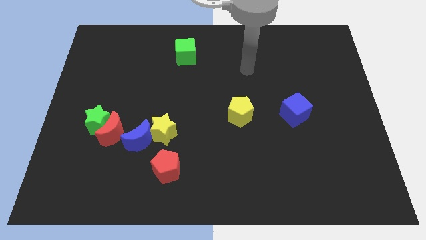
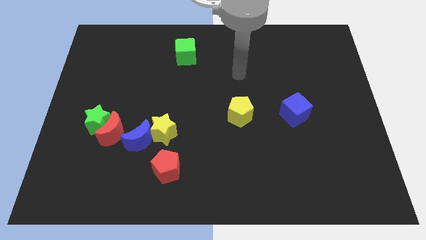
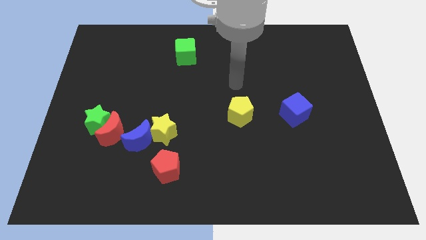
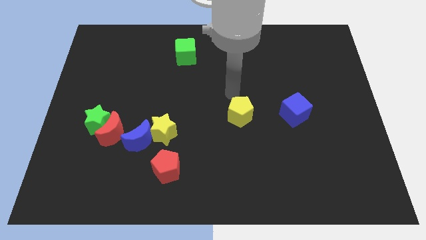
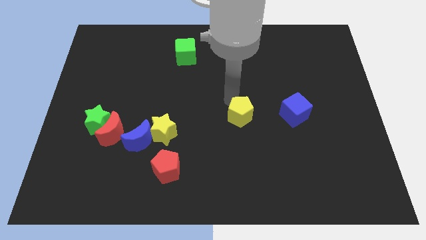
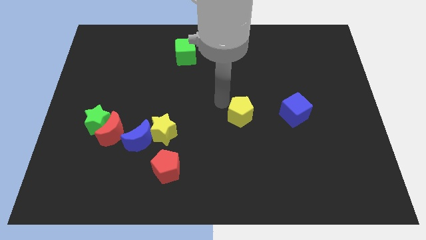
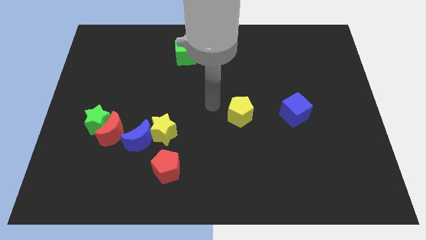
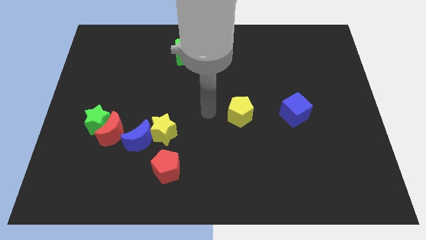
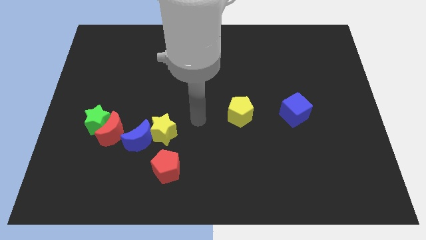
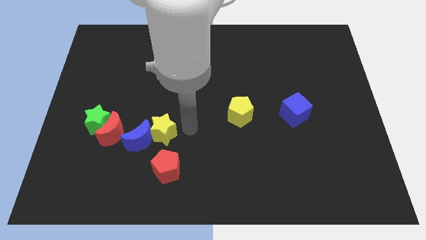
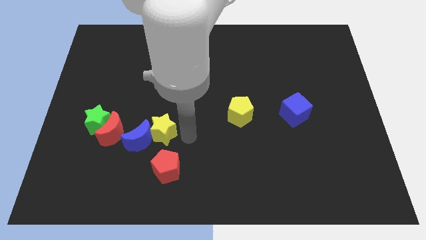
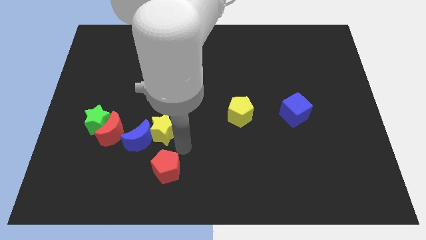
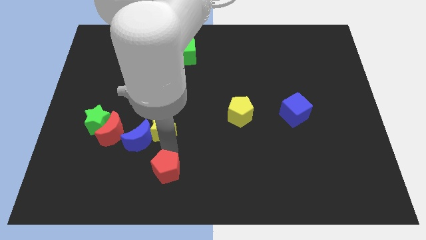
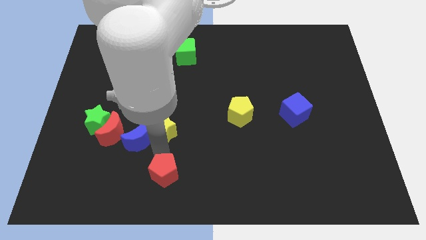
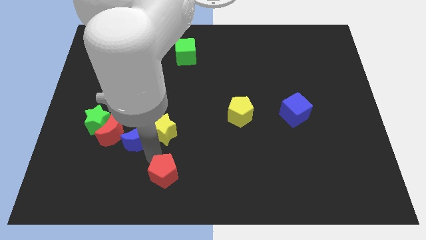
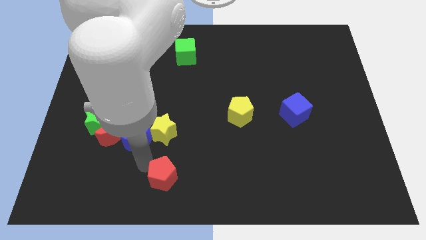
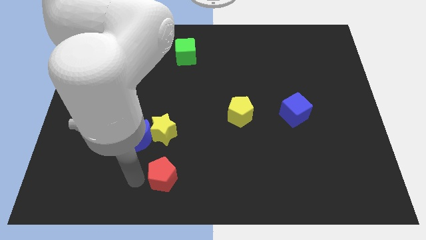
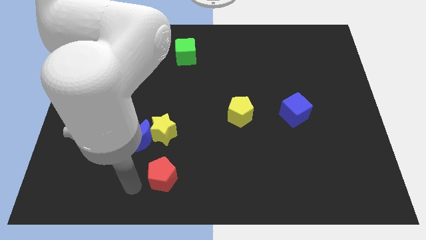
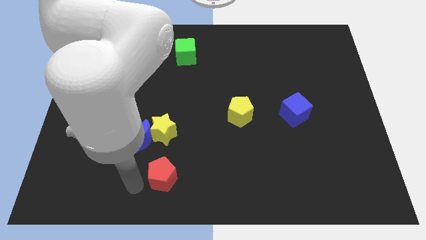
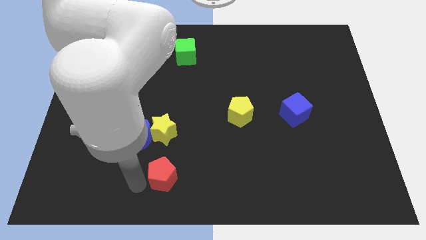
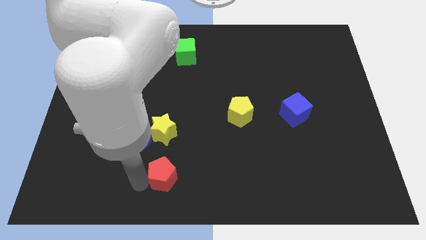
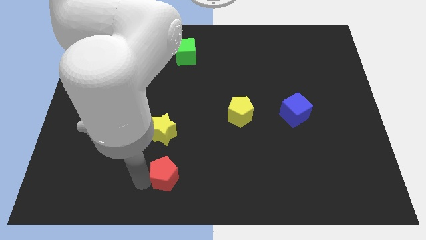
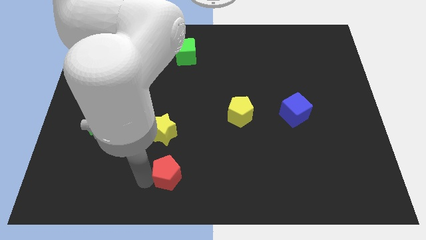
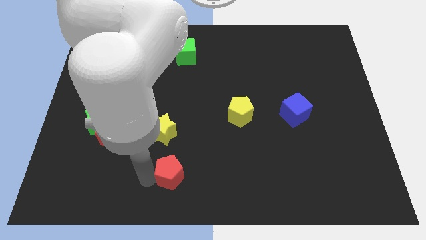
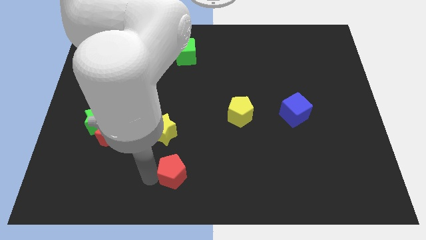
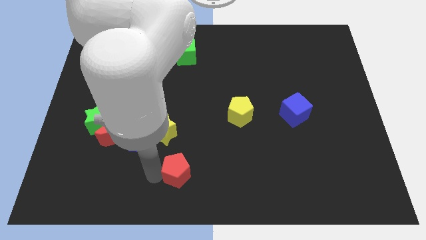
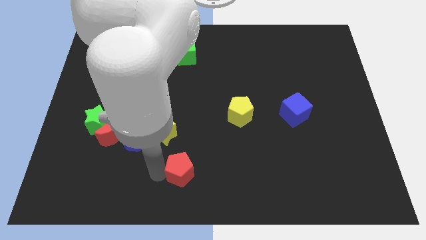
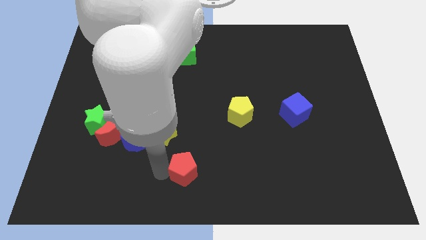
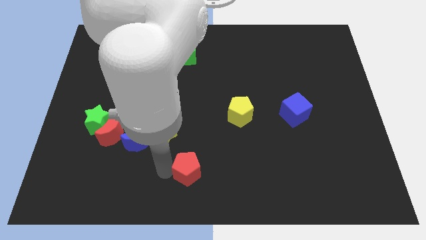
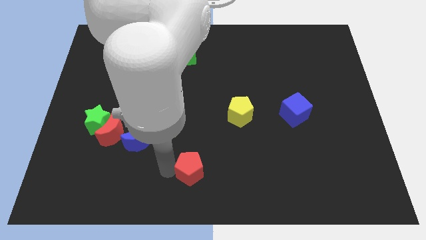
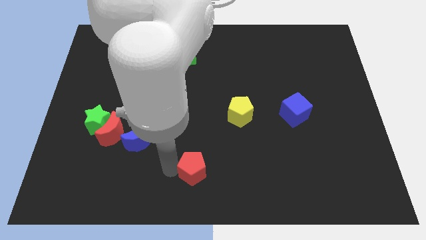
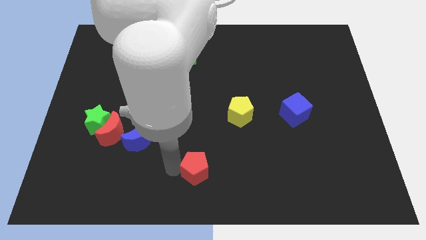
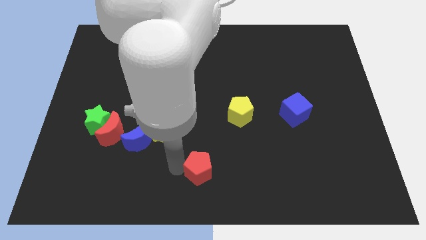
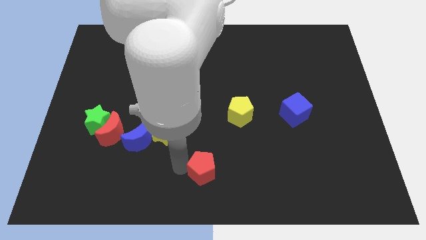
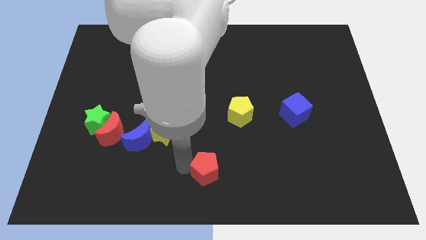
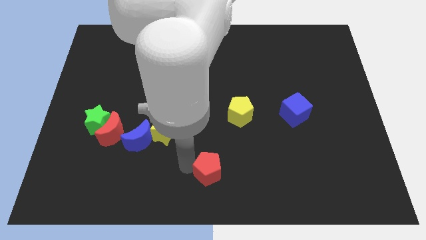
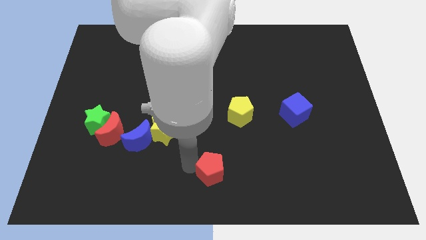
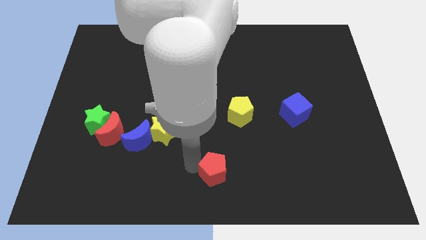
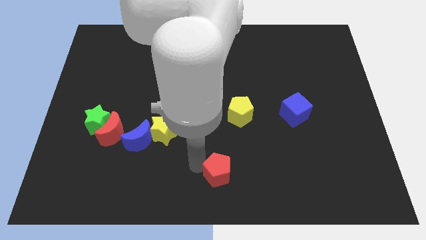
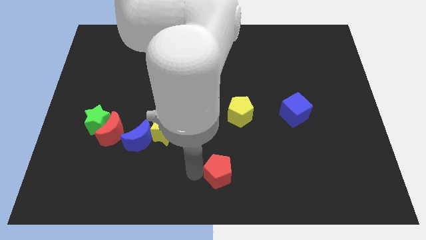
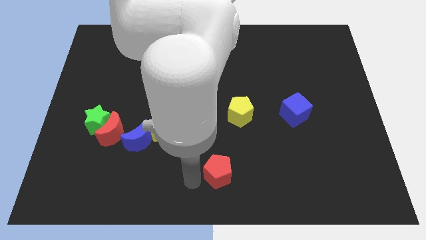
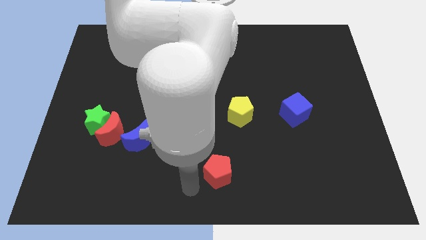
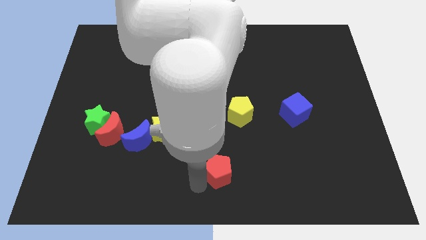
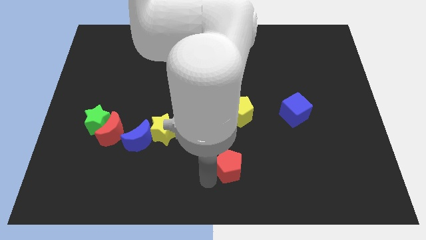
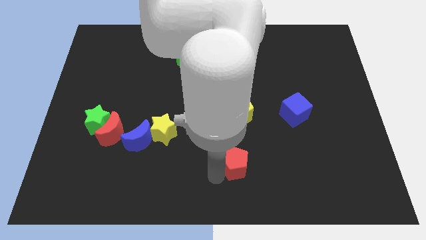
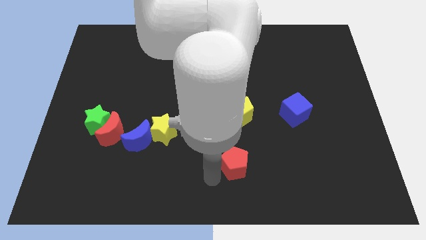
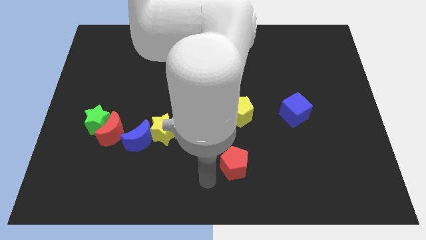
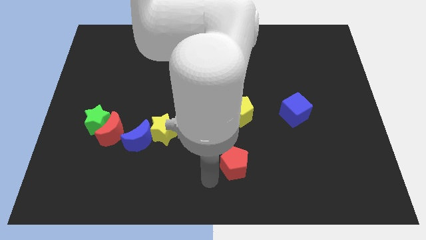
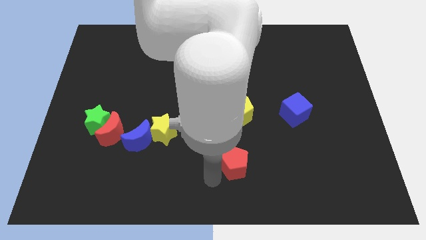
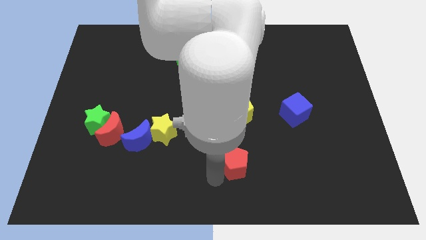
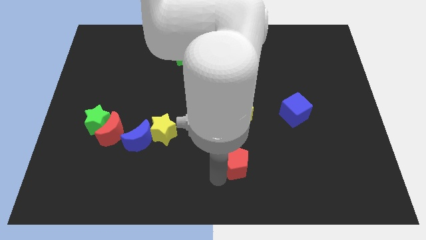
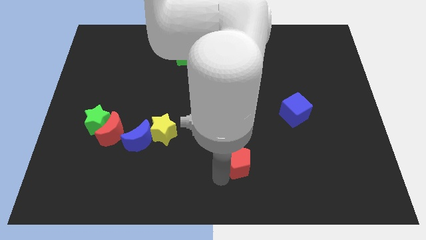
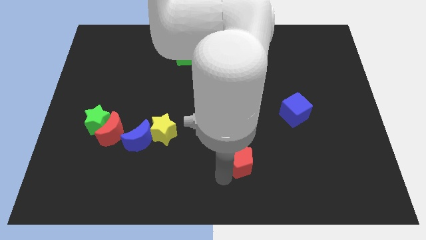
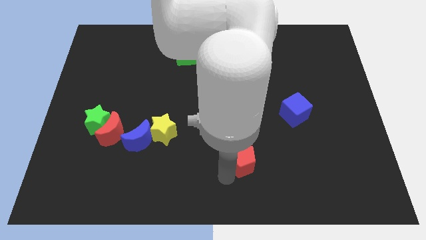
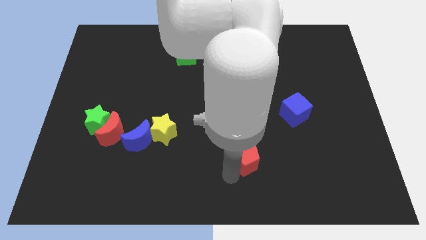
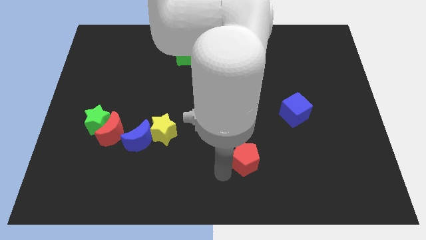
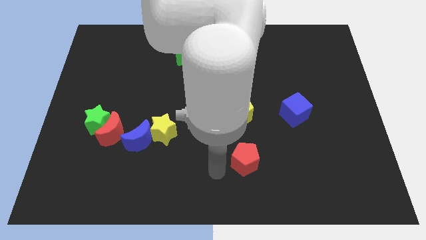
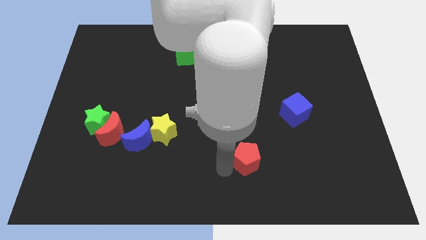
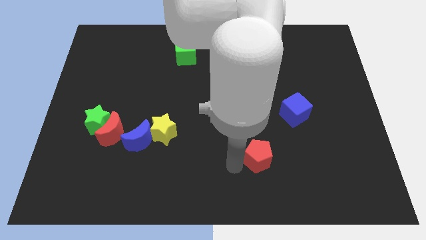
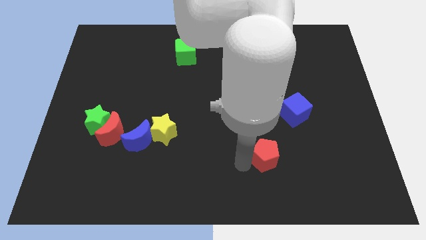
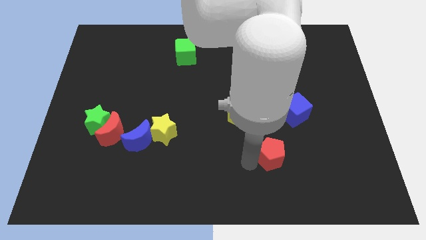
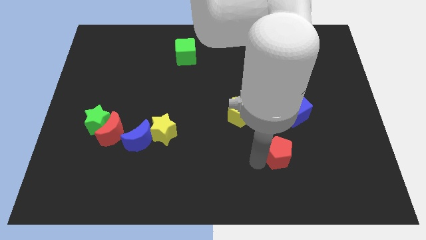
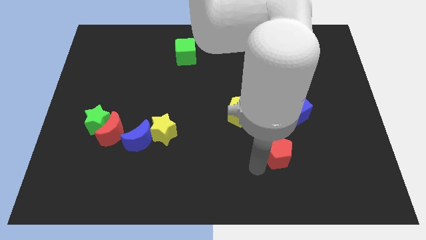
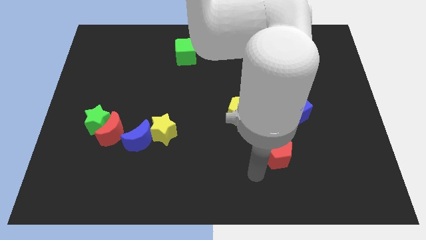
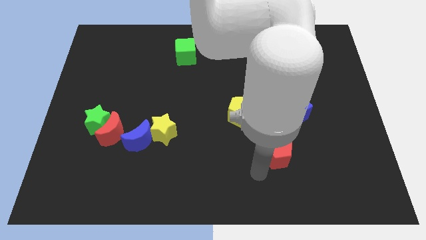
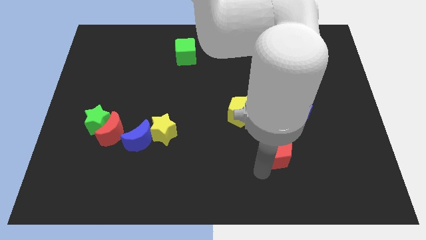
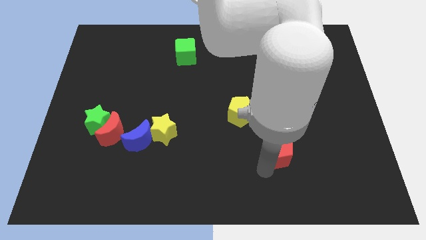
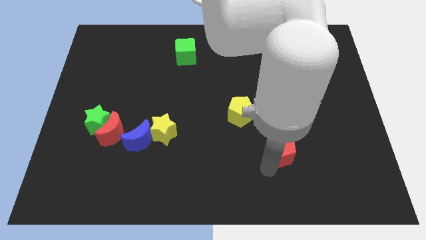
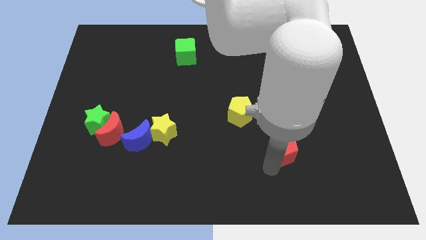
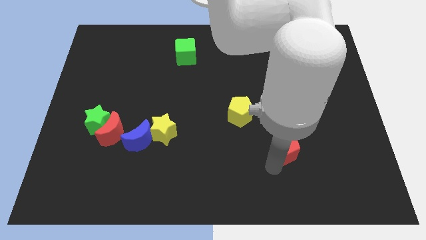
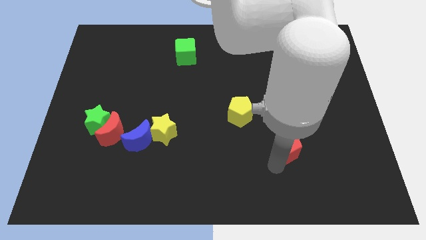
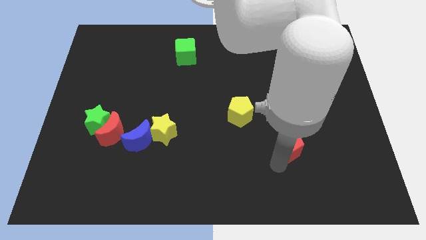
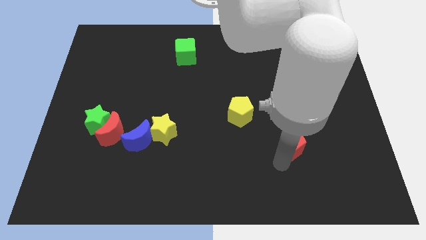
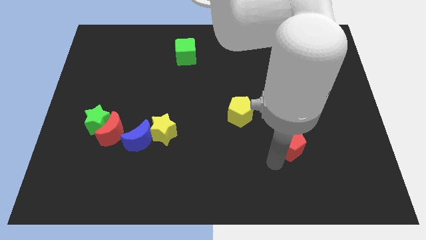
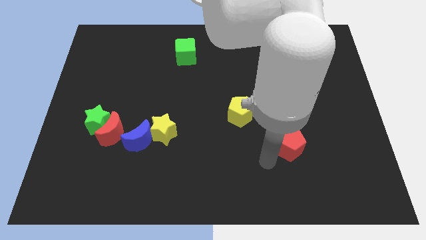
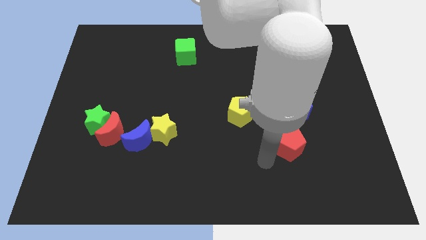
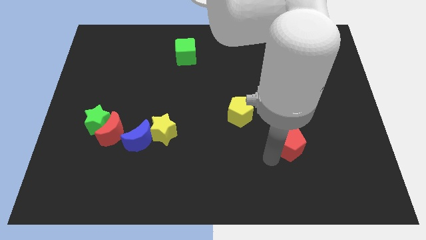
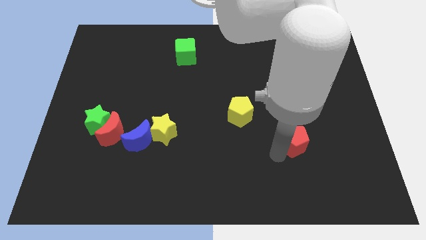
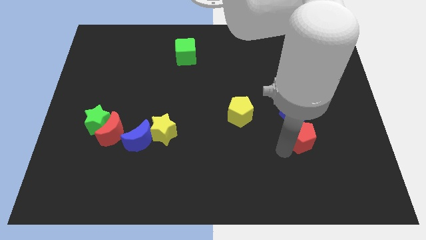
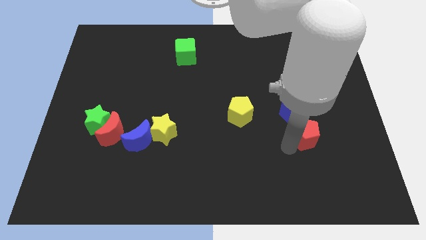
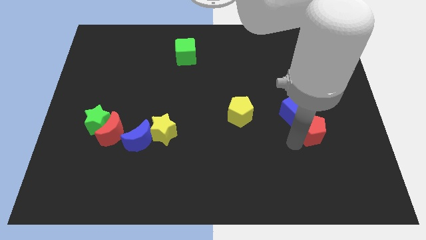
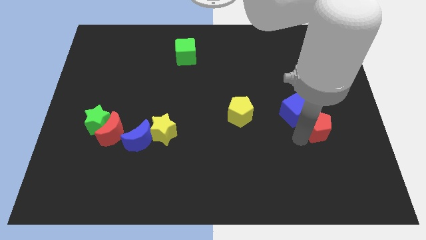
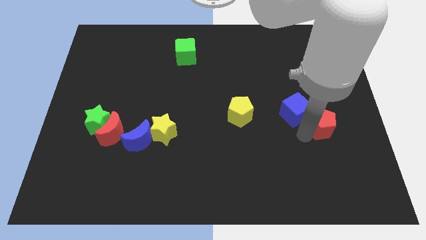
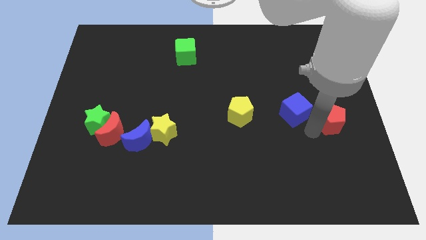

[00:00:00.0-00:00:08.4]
put the red pentagon to the right side
